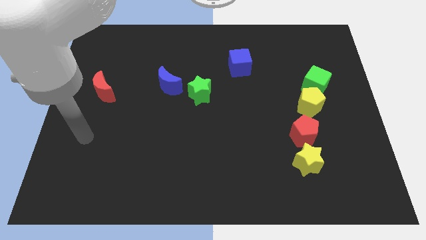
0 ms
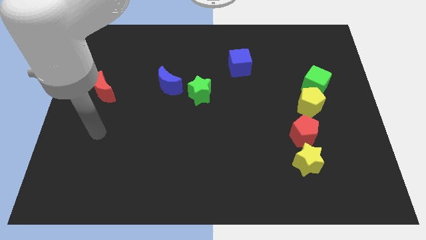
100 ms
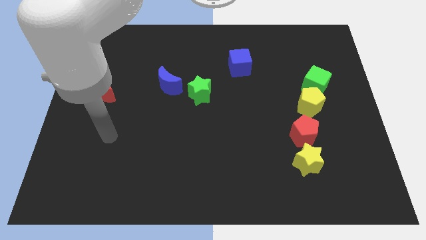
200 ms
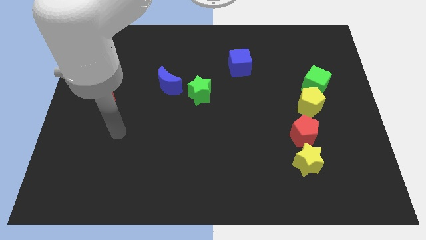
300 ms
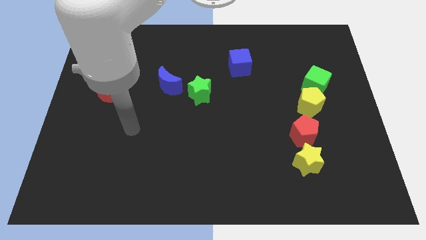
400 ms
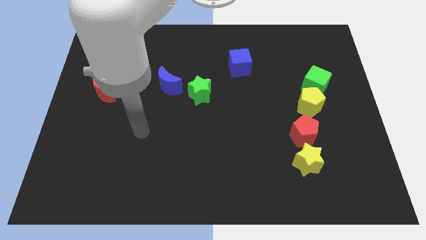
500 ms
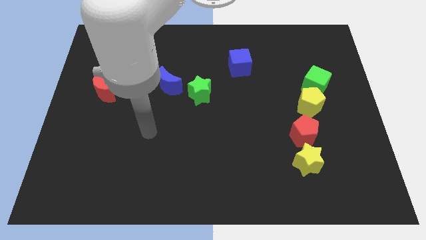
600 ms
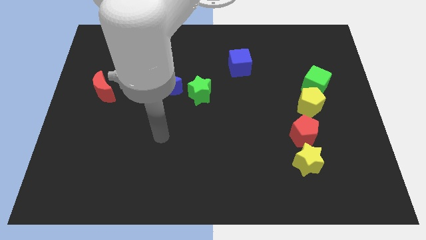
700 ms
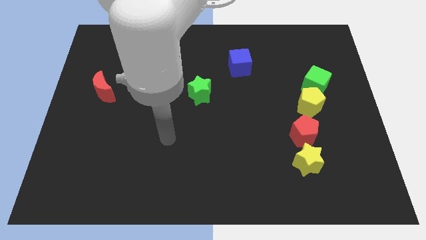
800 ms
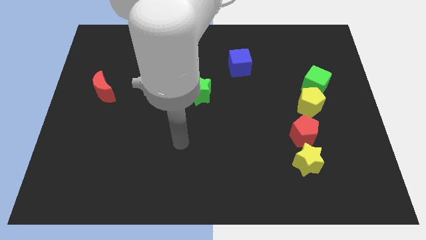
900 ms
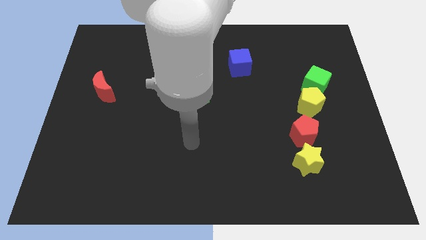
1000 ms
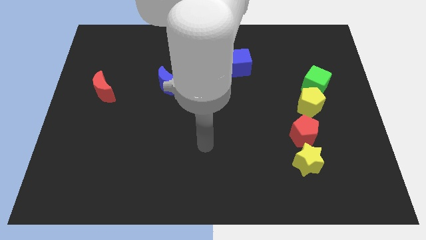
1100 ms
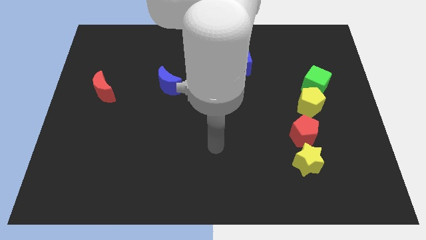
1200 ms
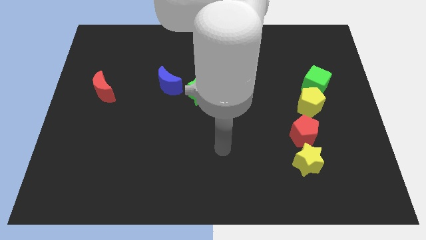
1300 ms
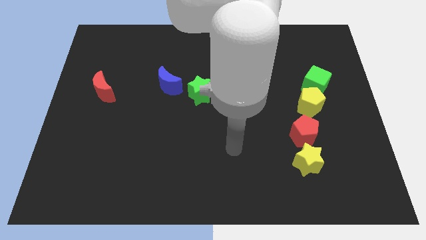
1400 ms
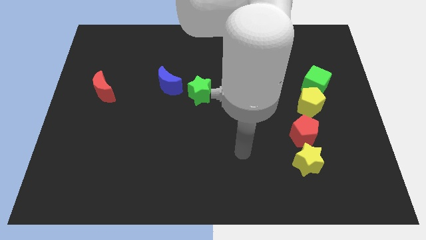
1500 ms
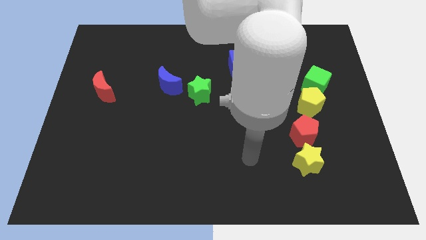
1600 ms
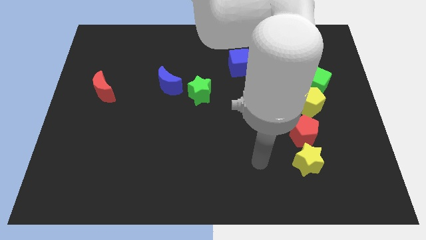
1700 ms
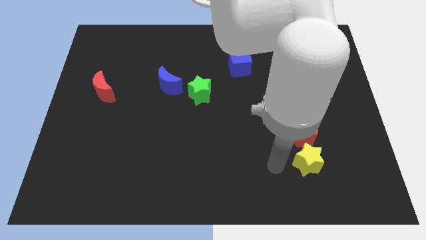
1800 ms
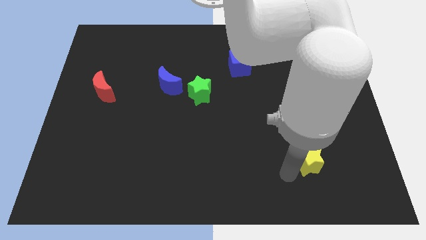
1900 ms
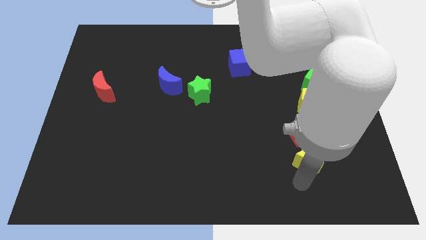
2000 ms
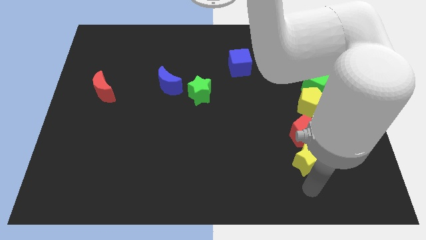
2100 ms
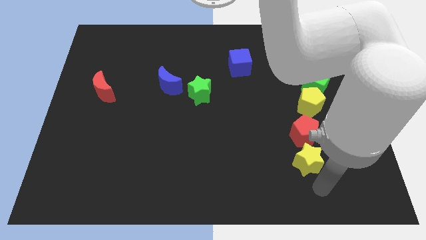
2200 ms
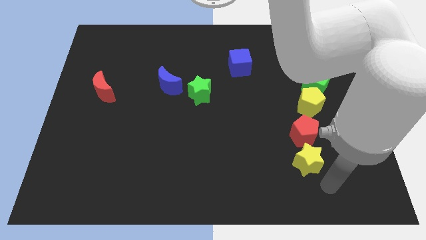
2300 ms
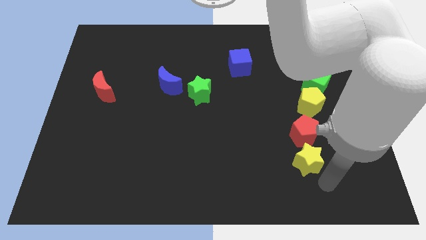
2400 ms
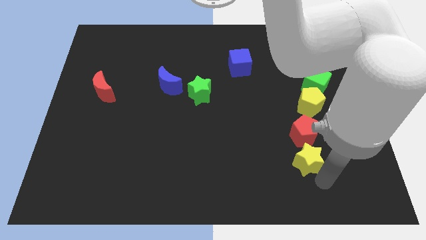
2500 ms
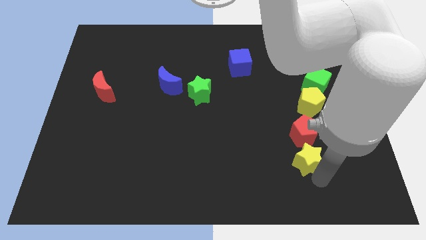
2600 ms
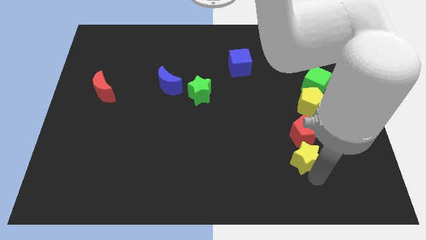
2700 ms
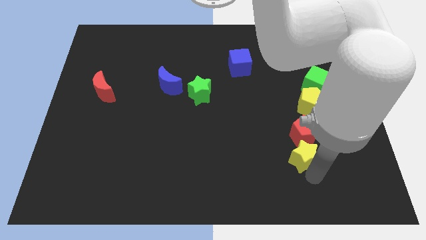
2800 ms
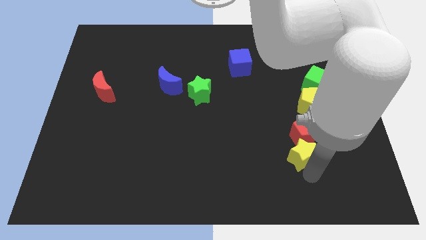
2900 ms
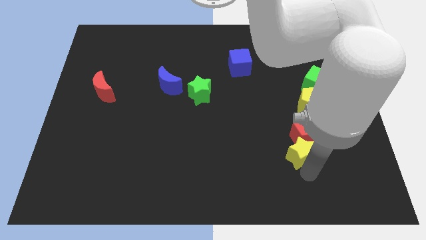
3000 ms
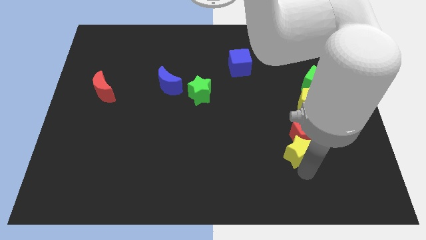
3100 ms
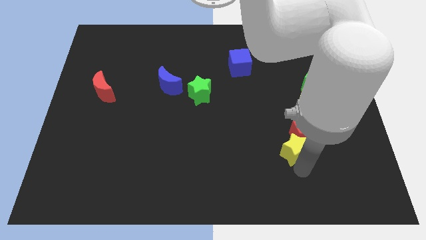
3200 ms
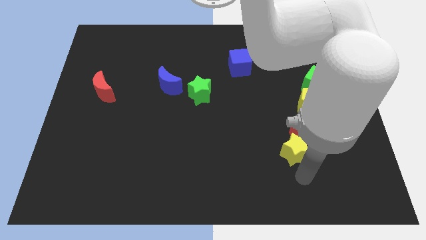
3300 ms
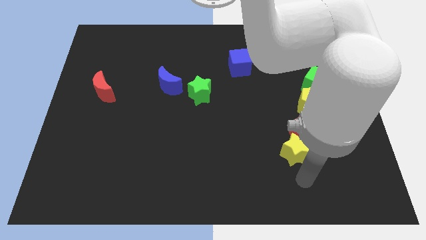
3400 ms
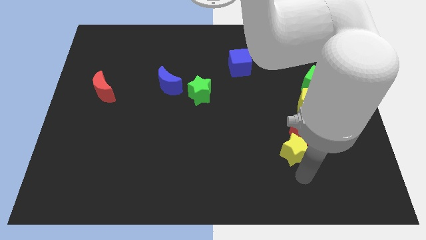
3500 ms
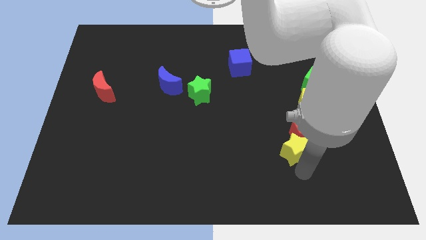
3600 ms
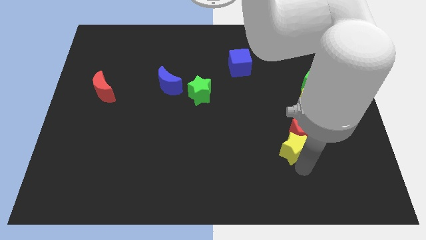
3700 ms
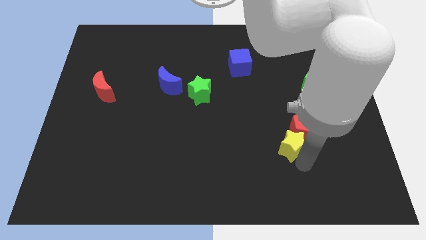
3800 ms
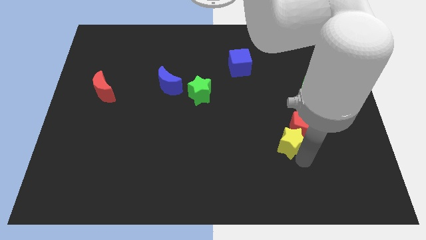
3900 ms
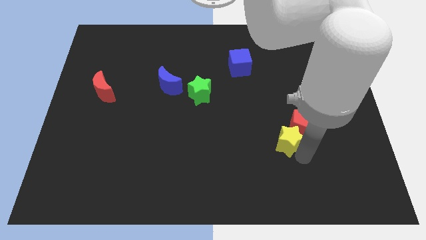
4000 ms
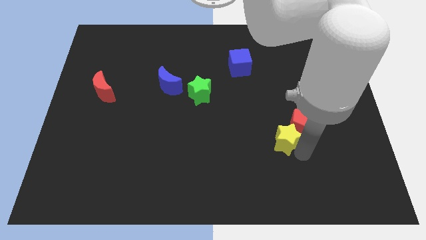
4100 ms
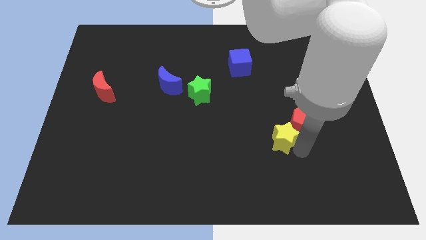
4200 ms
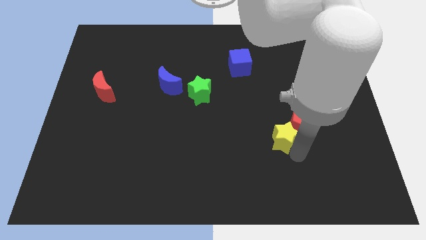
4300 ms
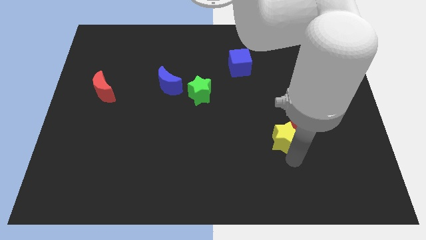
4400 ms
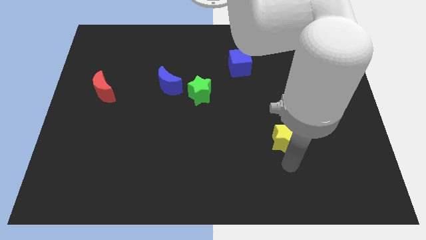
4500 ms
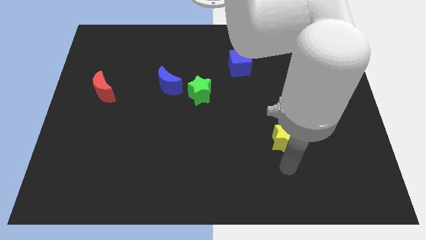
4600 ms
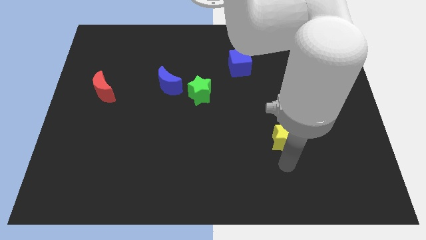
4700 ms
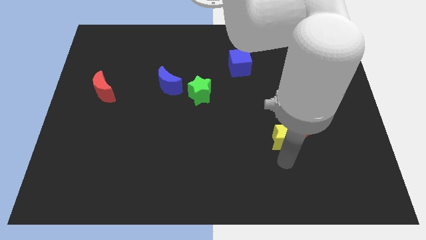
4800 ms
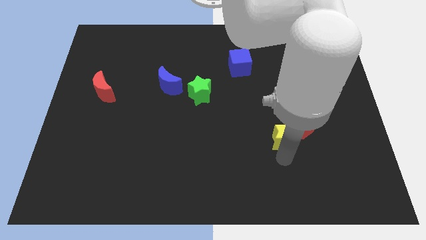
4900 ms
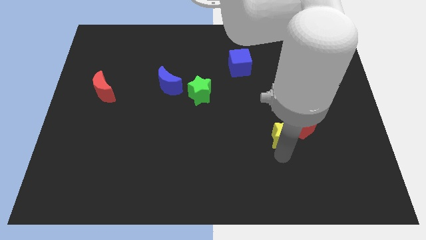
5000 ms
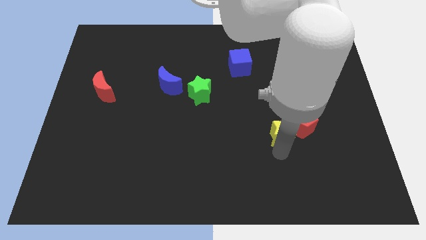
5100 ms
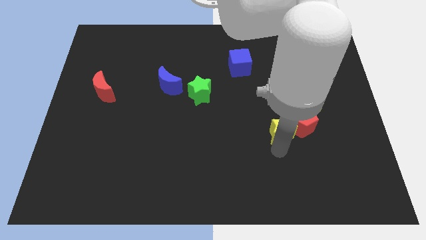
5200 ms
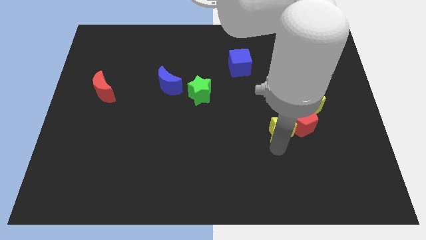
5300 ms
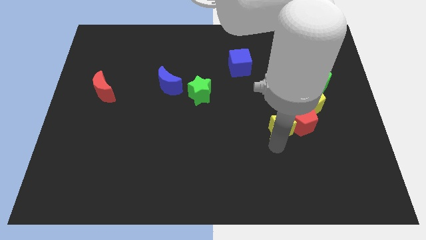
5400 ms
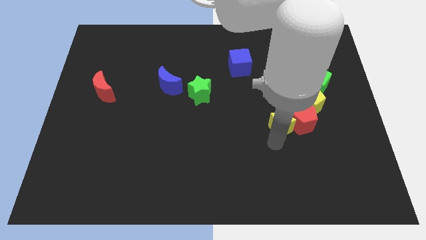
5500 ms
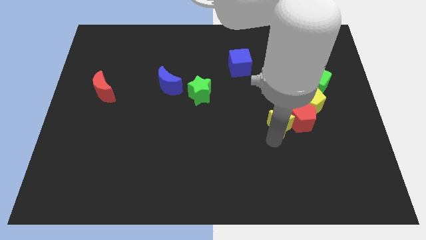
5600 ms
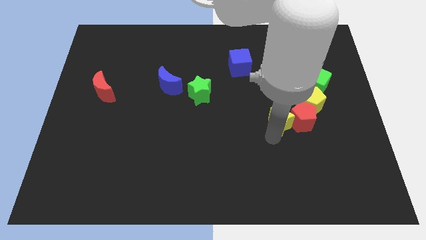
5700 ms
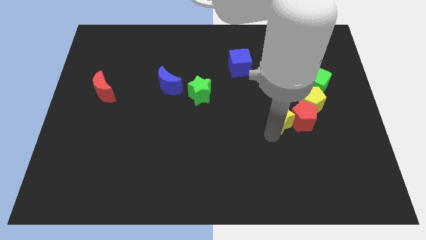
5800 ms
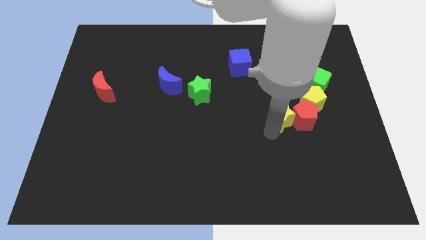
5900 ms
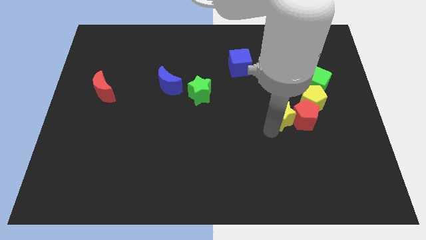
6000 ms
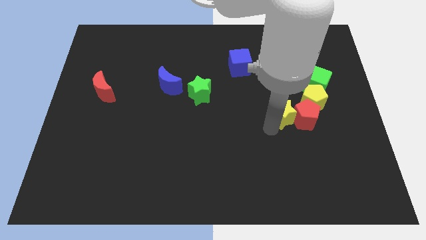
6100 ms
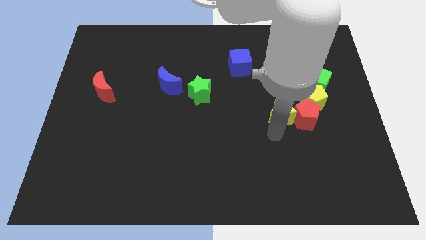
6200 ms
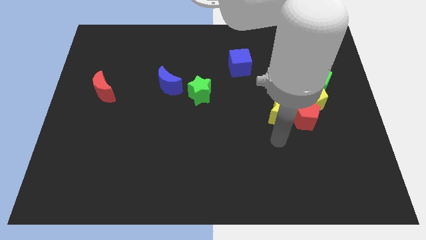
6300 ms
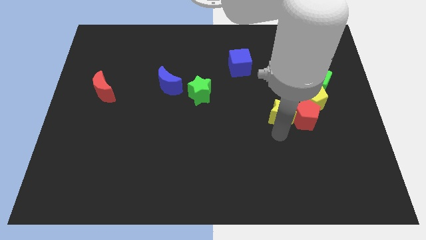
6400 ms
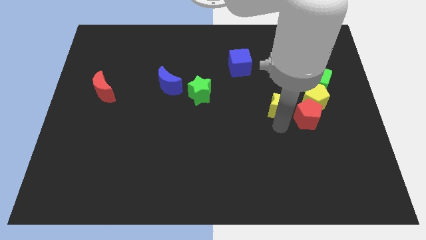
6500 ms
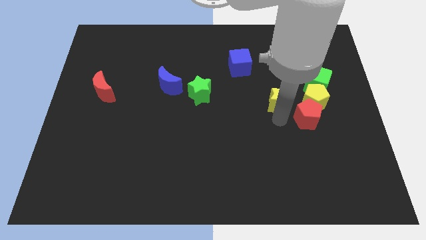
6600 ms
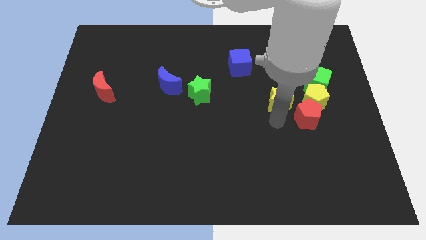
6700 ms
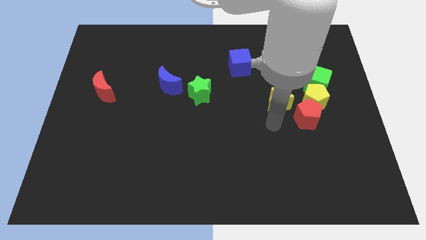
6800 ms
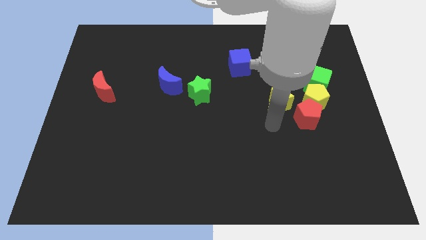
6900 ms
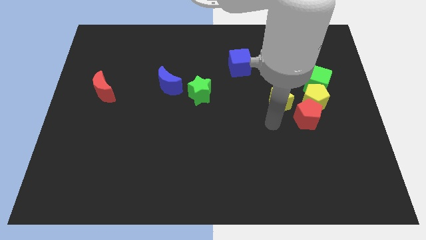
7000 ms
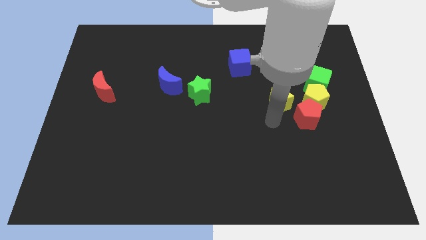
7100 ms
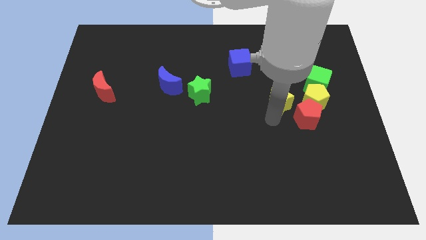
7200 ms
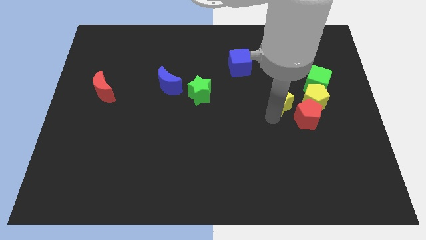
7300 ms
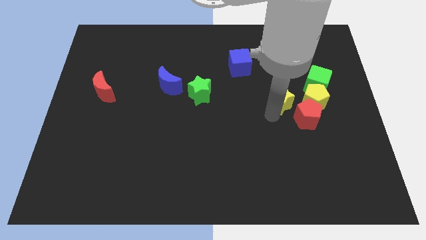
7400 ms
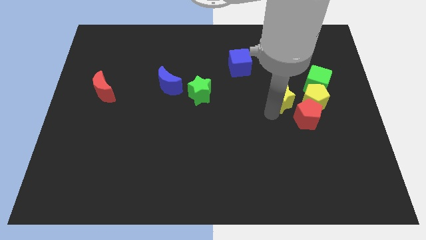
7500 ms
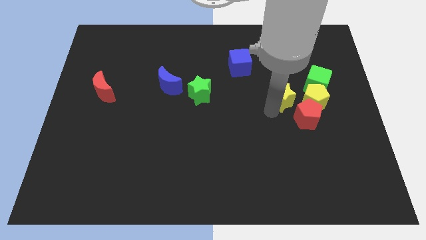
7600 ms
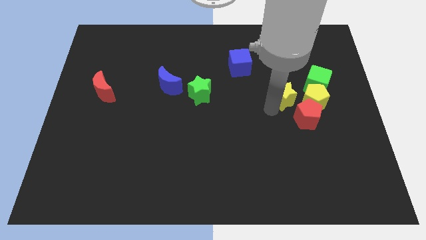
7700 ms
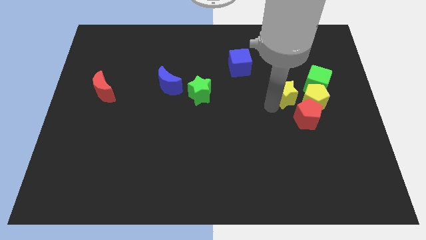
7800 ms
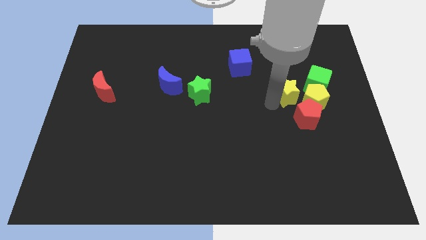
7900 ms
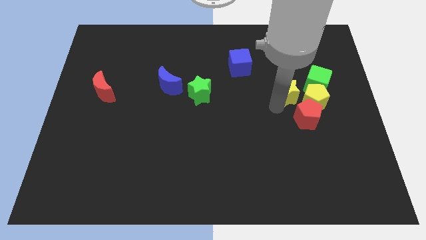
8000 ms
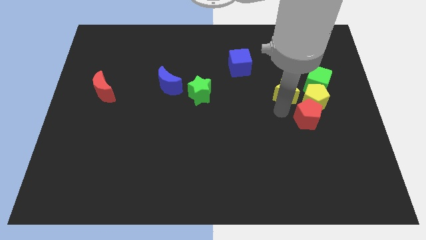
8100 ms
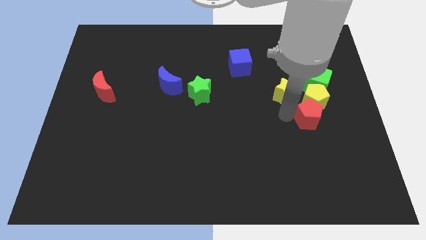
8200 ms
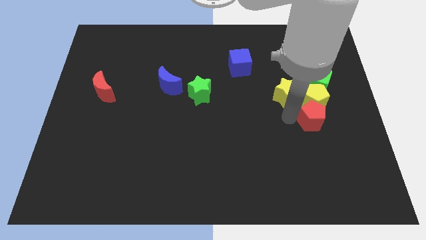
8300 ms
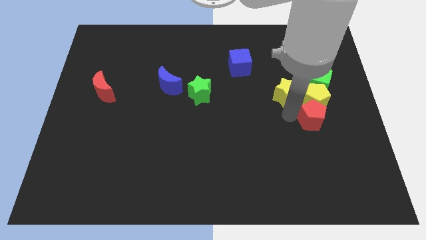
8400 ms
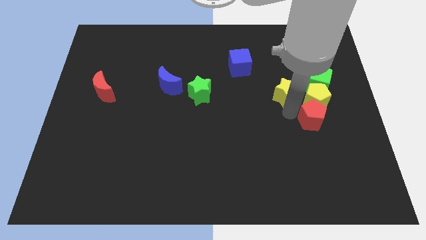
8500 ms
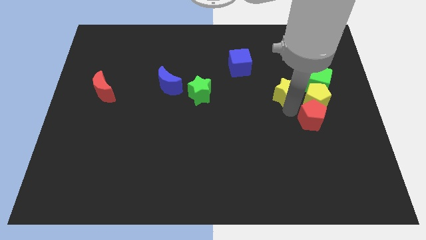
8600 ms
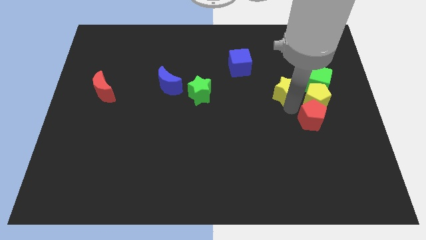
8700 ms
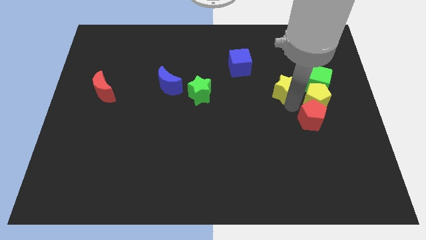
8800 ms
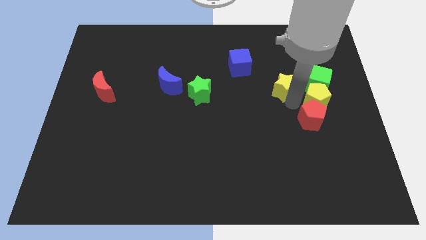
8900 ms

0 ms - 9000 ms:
move the yellow star upwards
